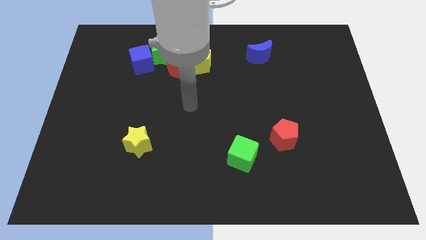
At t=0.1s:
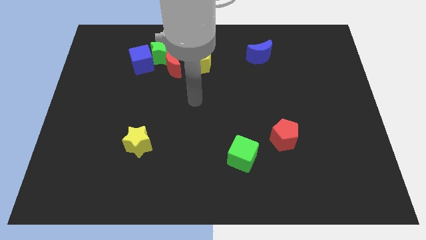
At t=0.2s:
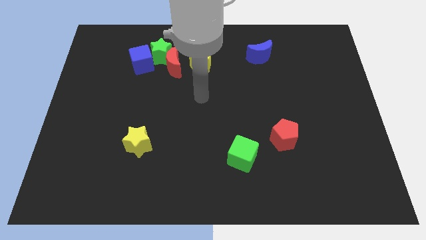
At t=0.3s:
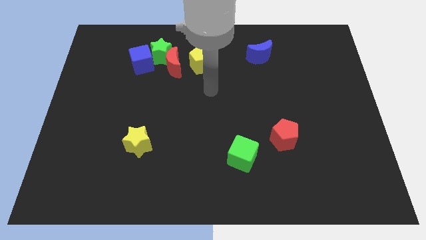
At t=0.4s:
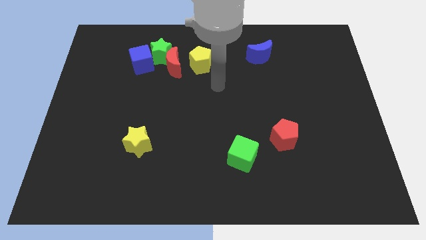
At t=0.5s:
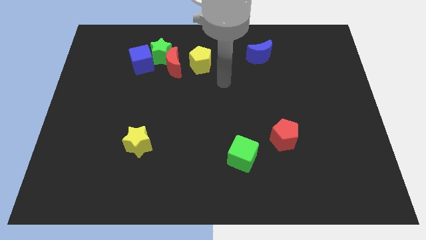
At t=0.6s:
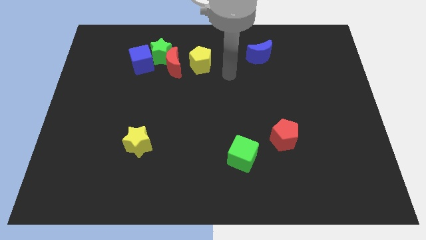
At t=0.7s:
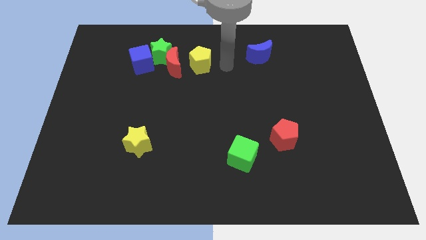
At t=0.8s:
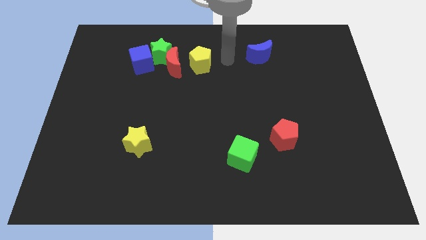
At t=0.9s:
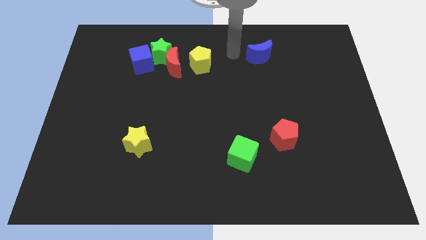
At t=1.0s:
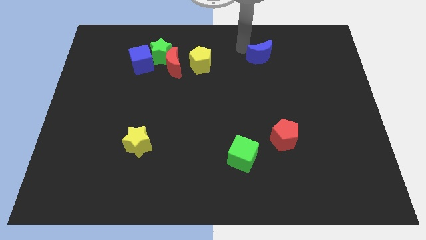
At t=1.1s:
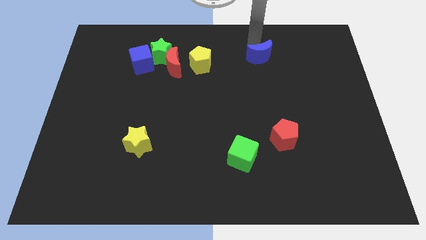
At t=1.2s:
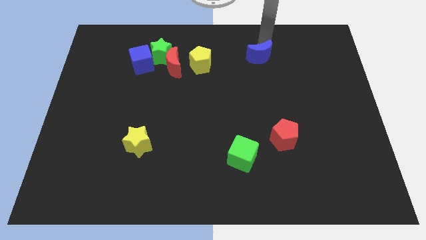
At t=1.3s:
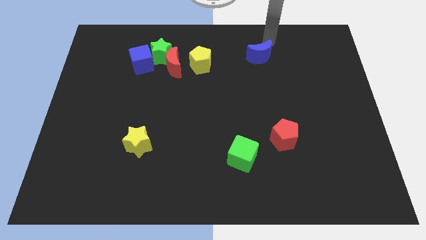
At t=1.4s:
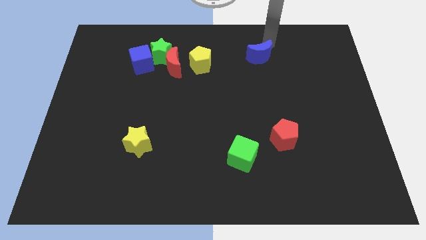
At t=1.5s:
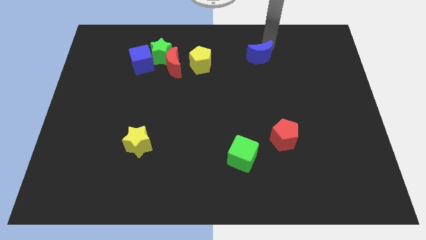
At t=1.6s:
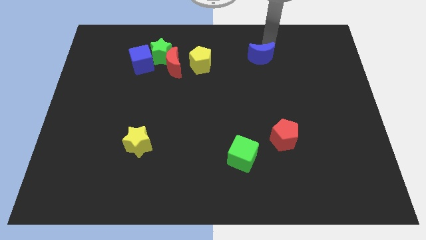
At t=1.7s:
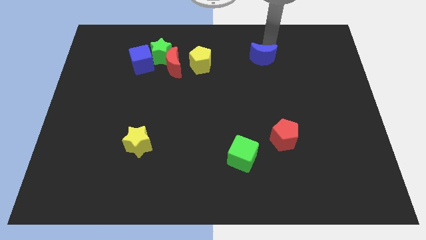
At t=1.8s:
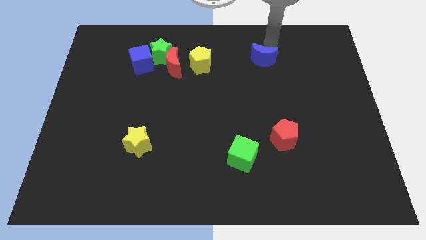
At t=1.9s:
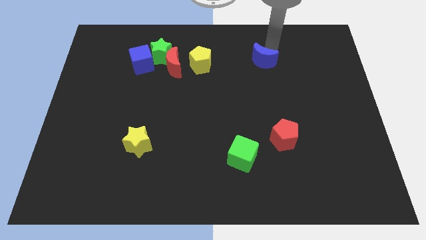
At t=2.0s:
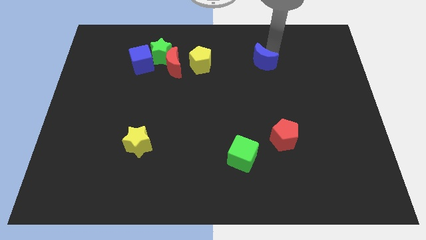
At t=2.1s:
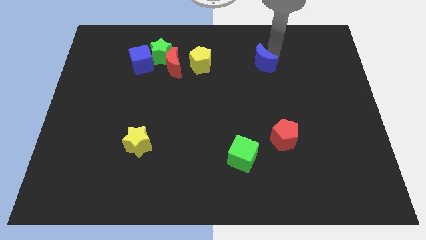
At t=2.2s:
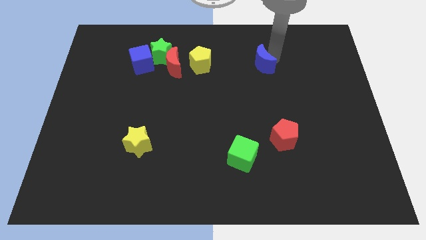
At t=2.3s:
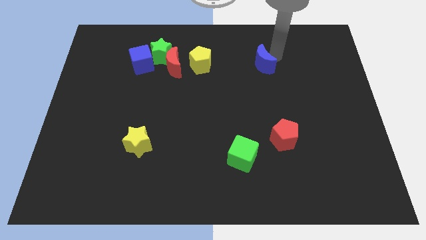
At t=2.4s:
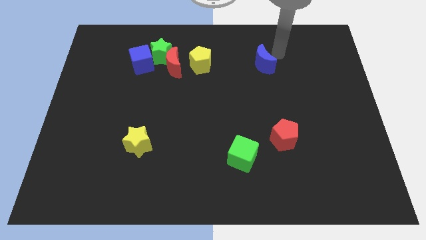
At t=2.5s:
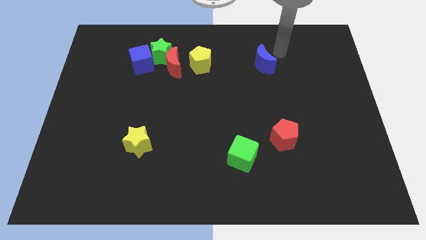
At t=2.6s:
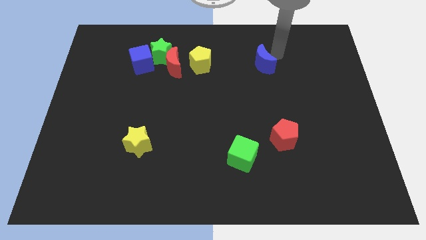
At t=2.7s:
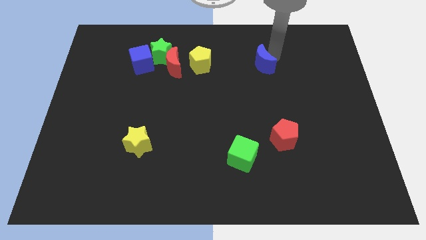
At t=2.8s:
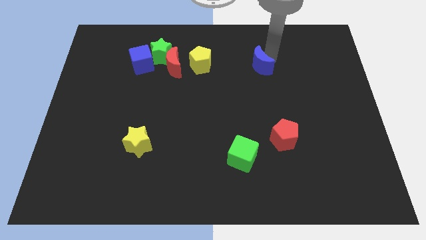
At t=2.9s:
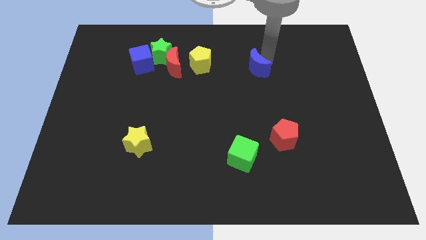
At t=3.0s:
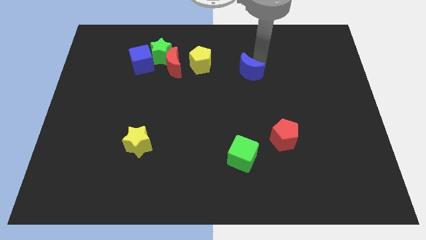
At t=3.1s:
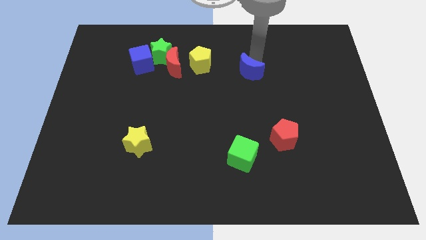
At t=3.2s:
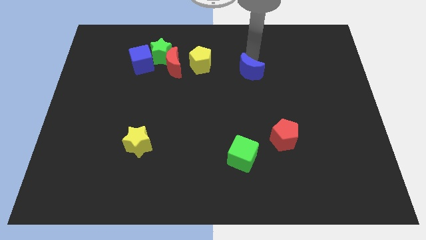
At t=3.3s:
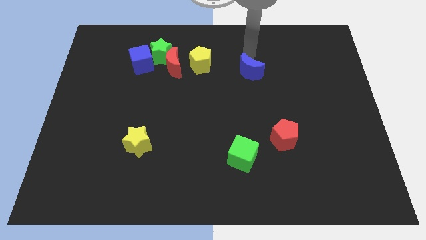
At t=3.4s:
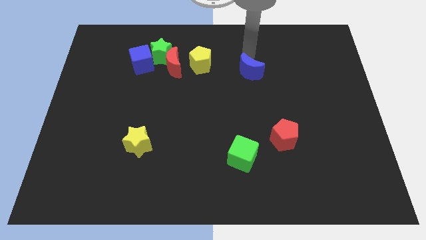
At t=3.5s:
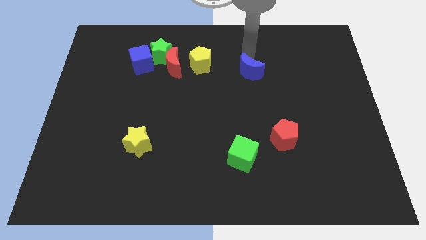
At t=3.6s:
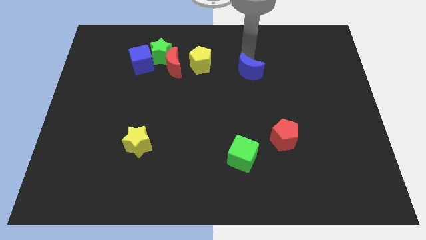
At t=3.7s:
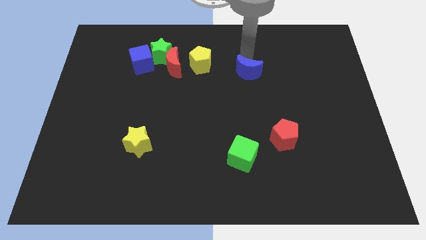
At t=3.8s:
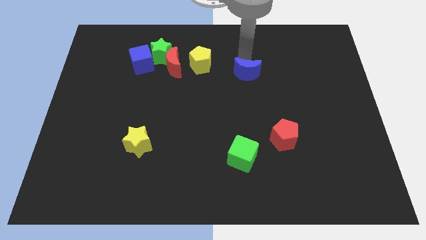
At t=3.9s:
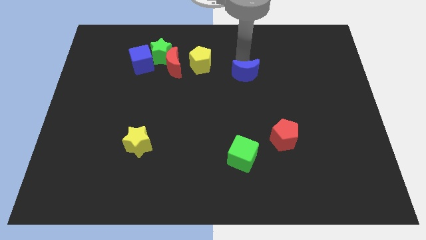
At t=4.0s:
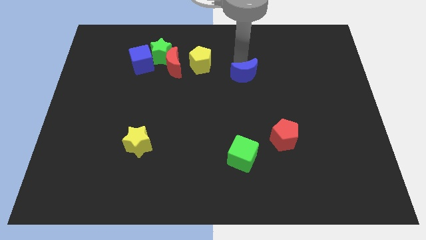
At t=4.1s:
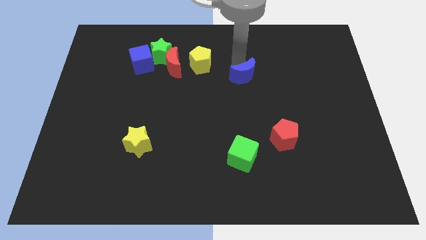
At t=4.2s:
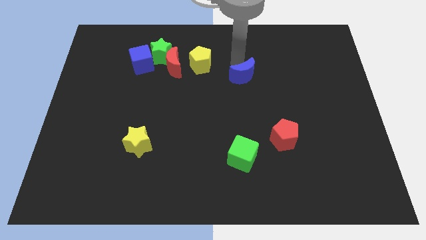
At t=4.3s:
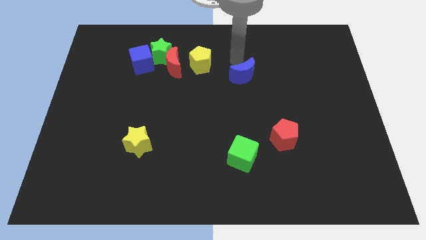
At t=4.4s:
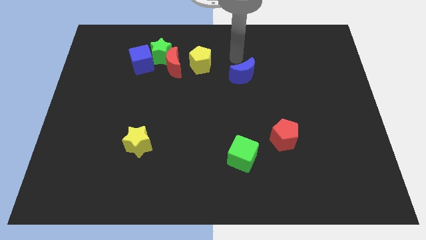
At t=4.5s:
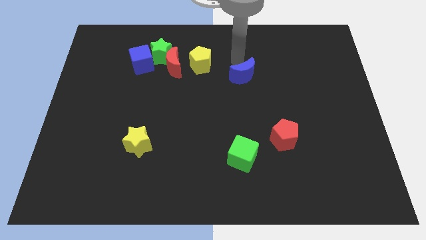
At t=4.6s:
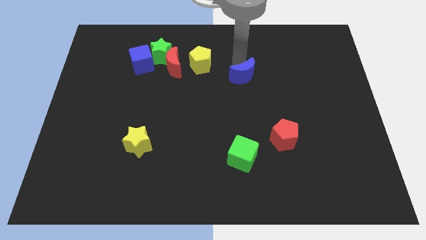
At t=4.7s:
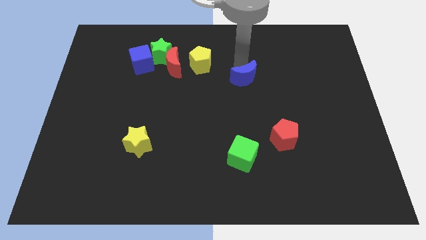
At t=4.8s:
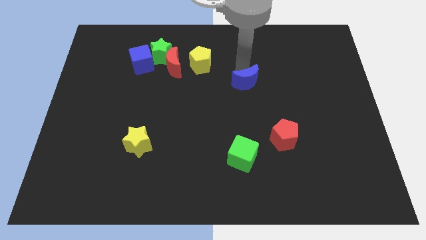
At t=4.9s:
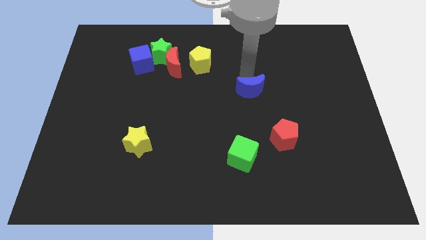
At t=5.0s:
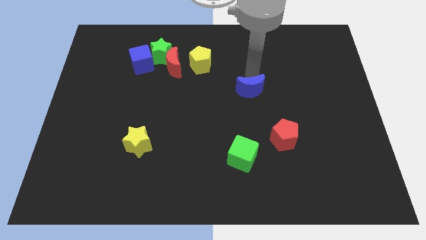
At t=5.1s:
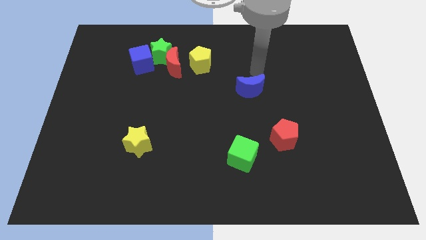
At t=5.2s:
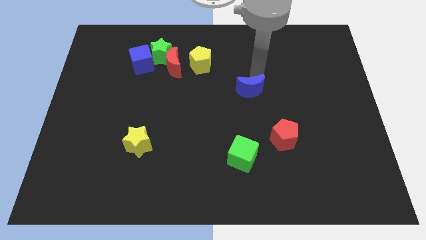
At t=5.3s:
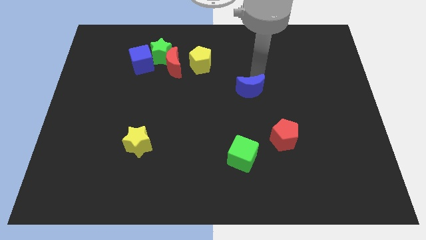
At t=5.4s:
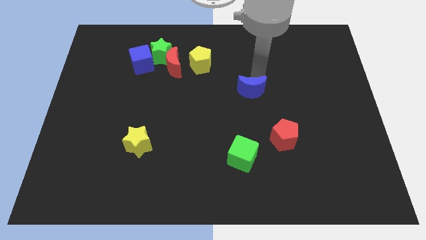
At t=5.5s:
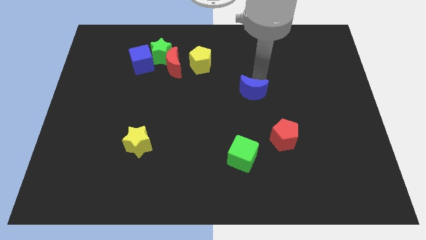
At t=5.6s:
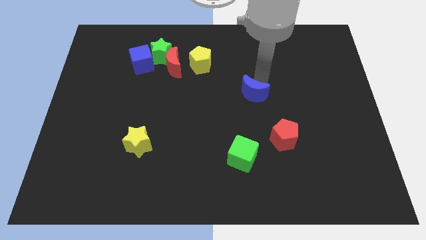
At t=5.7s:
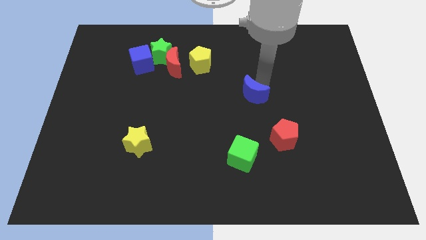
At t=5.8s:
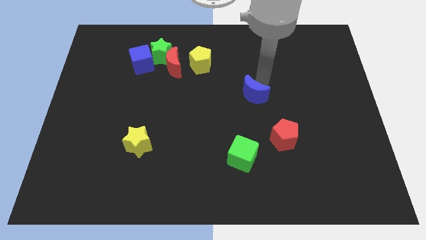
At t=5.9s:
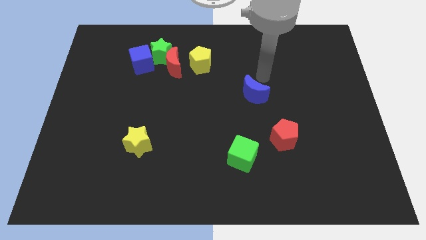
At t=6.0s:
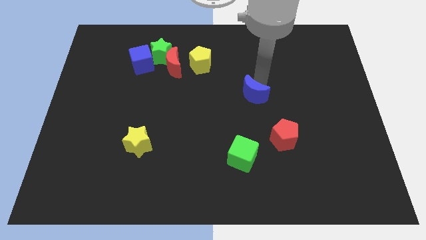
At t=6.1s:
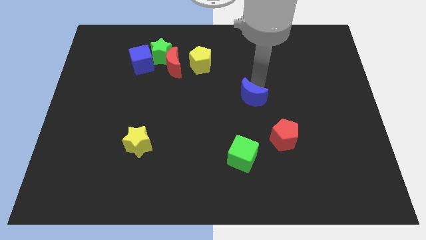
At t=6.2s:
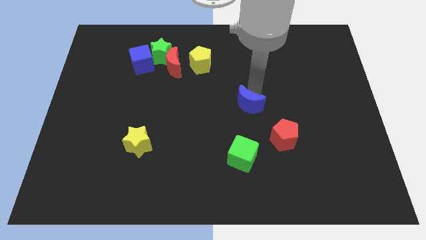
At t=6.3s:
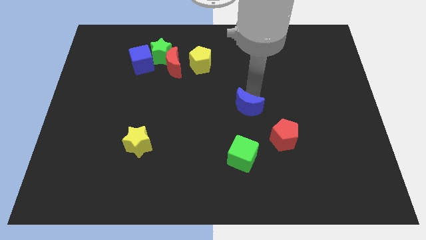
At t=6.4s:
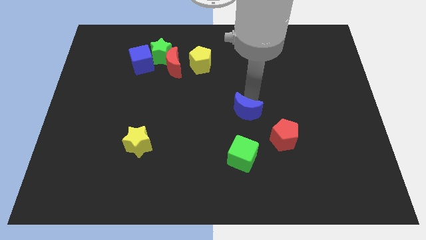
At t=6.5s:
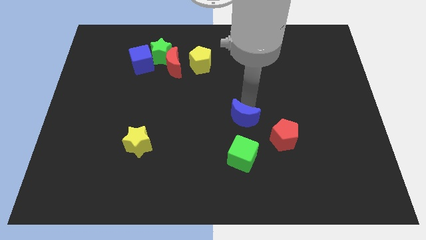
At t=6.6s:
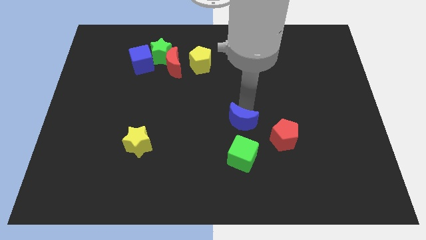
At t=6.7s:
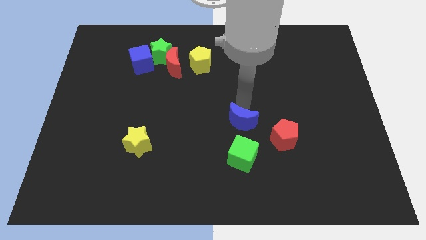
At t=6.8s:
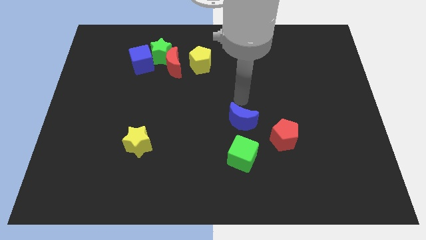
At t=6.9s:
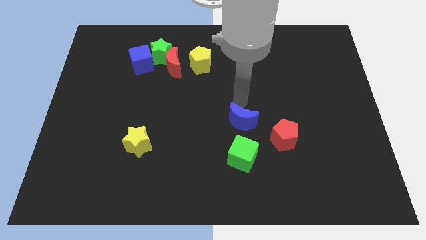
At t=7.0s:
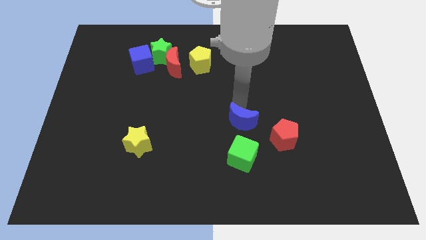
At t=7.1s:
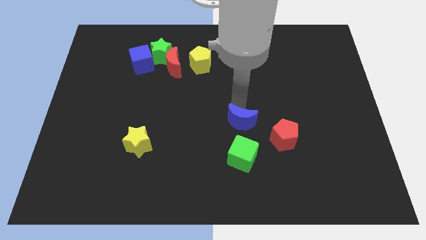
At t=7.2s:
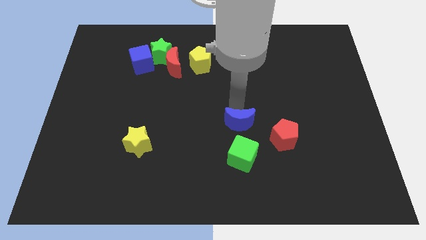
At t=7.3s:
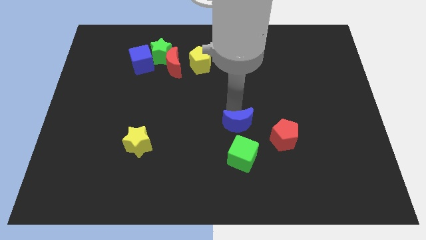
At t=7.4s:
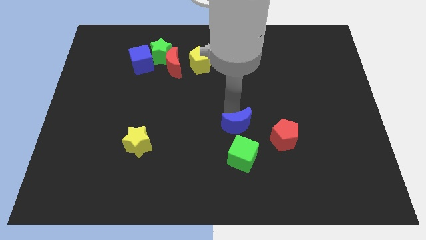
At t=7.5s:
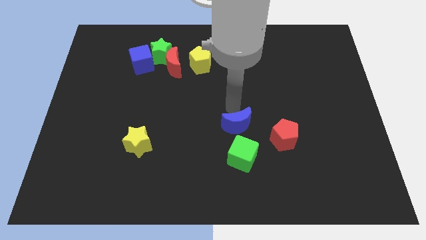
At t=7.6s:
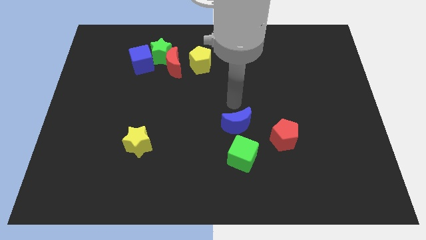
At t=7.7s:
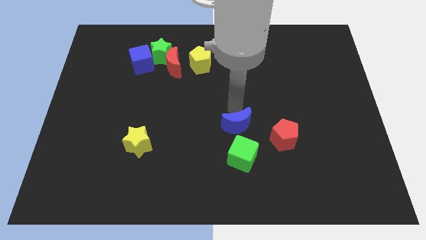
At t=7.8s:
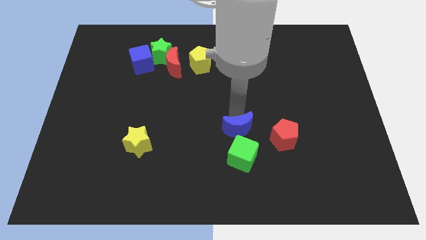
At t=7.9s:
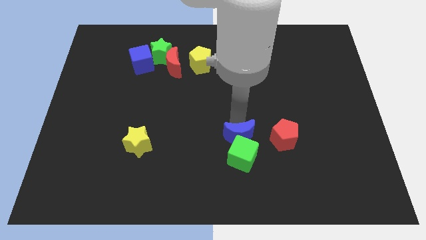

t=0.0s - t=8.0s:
push the blue moon next to the green cube
